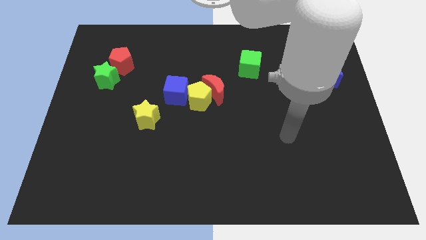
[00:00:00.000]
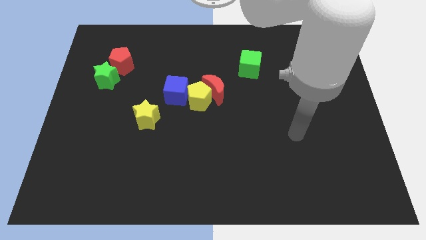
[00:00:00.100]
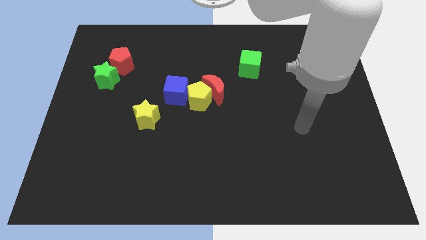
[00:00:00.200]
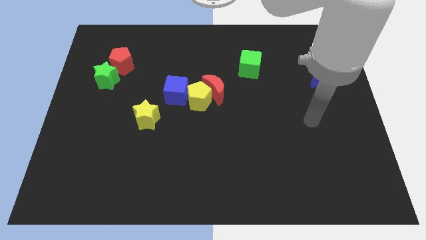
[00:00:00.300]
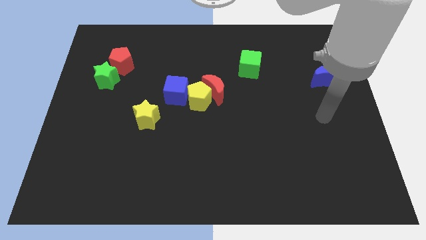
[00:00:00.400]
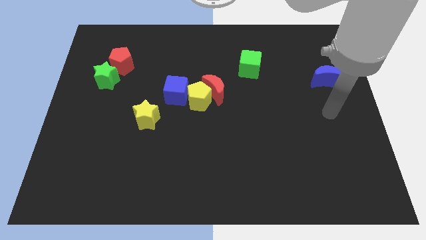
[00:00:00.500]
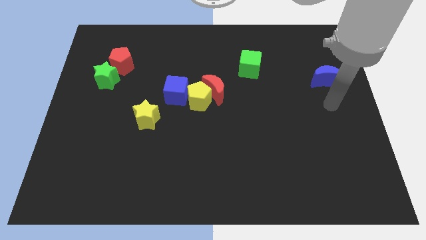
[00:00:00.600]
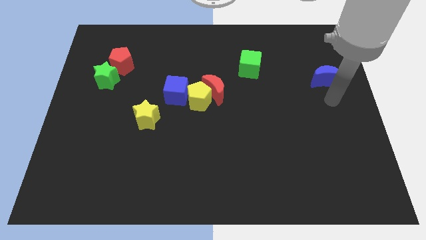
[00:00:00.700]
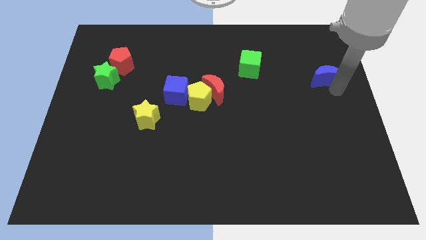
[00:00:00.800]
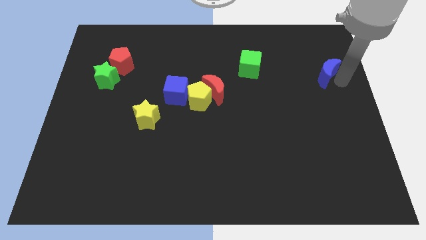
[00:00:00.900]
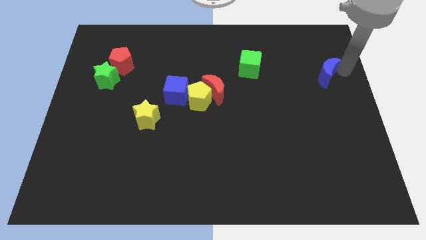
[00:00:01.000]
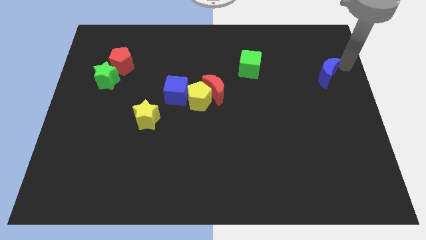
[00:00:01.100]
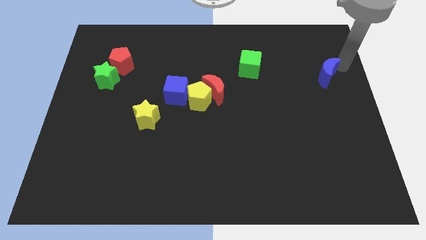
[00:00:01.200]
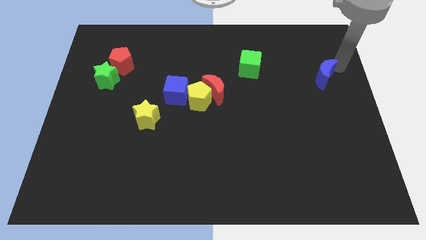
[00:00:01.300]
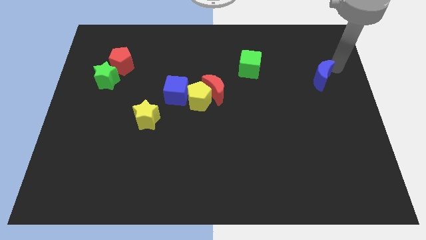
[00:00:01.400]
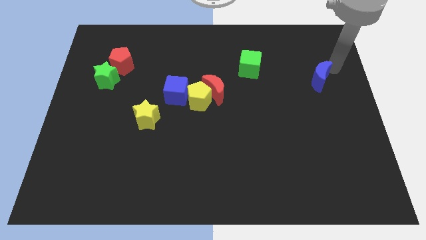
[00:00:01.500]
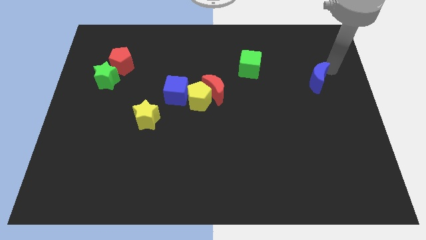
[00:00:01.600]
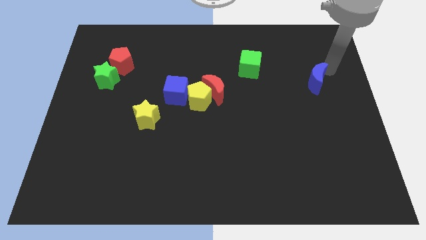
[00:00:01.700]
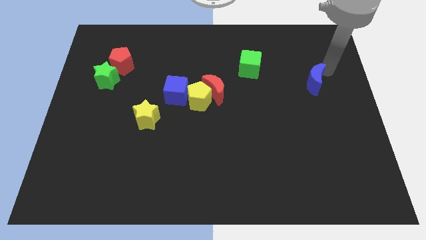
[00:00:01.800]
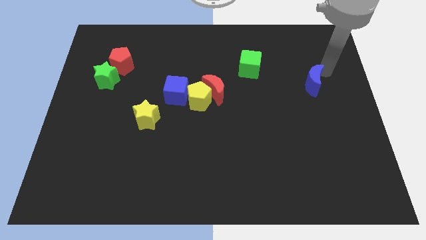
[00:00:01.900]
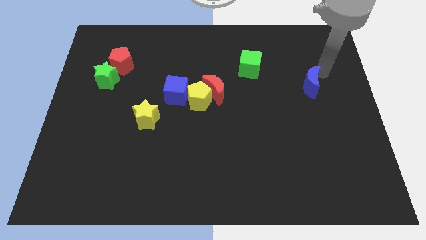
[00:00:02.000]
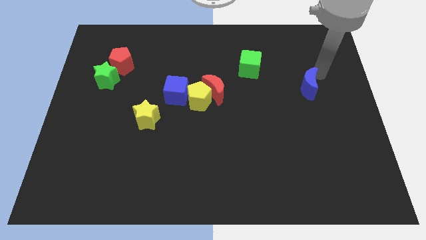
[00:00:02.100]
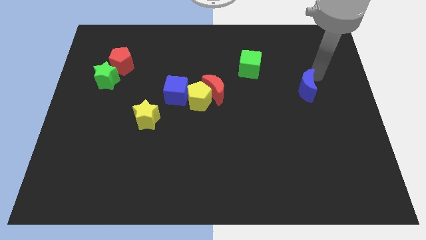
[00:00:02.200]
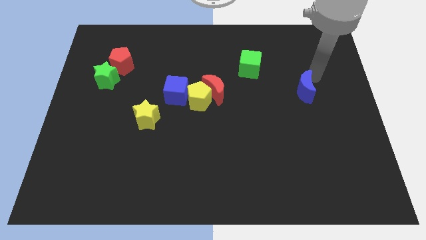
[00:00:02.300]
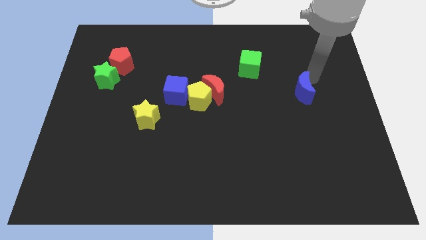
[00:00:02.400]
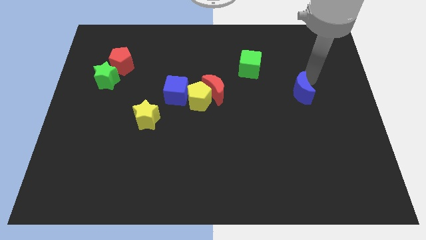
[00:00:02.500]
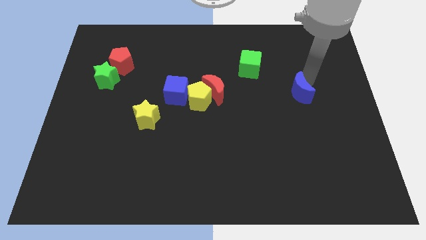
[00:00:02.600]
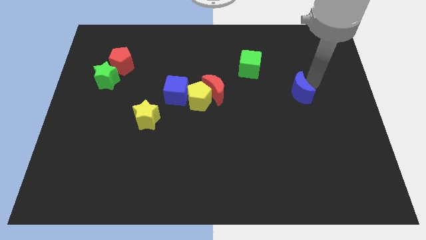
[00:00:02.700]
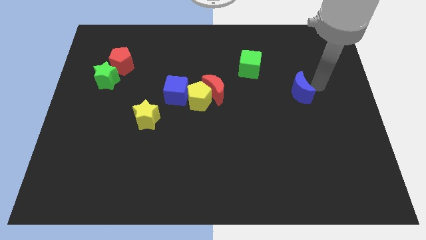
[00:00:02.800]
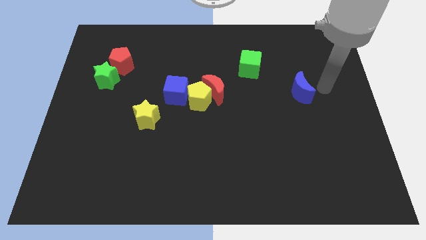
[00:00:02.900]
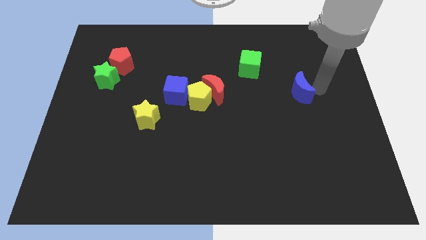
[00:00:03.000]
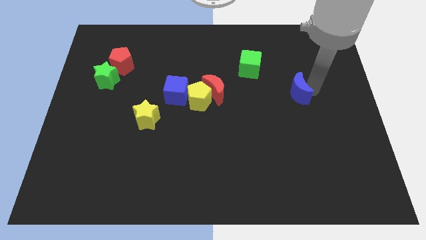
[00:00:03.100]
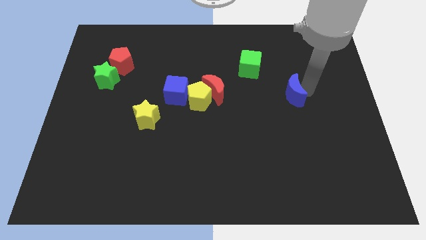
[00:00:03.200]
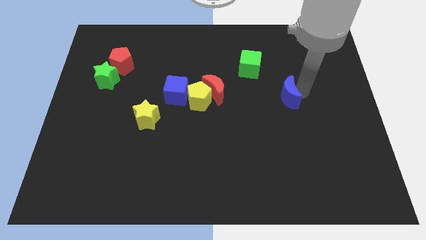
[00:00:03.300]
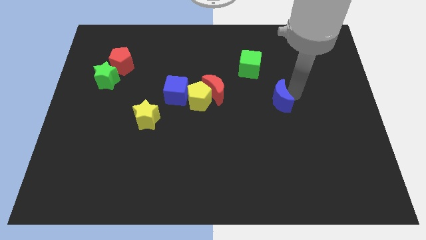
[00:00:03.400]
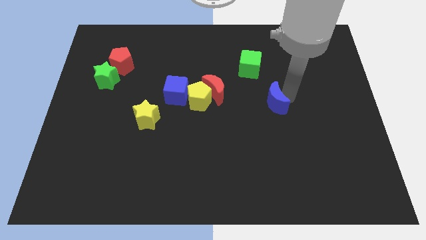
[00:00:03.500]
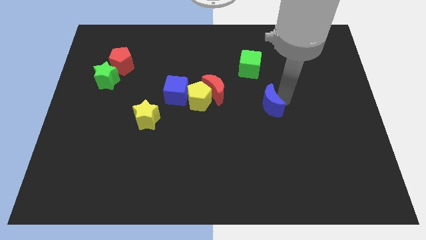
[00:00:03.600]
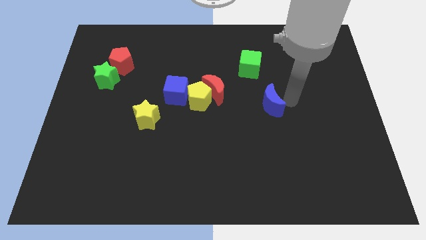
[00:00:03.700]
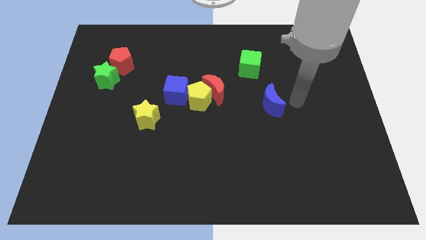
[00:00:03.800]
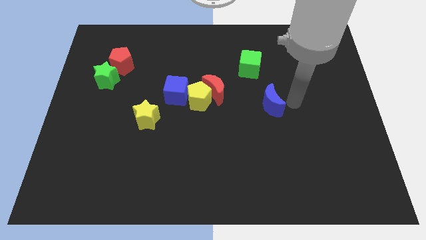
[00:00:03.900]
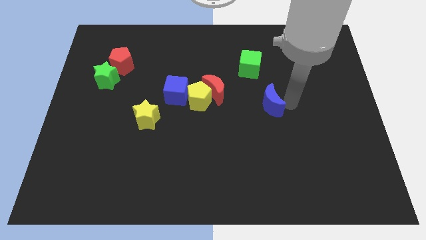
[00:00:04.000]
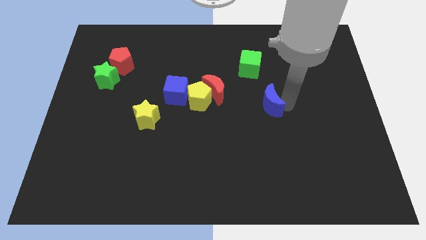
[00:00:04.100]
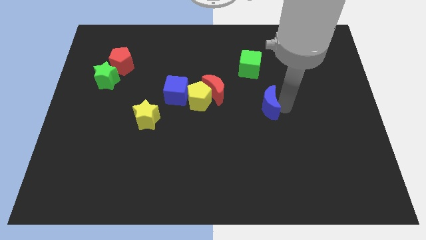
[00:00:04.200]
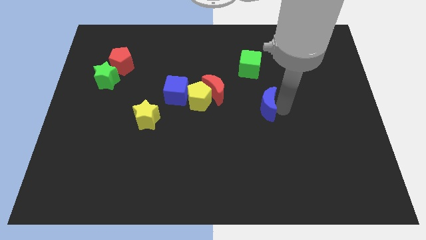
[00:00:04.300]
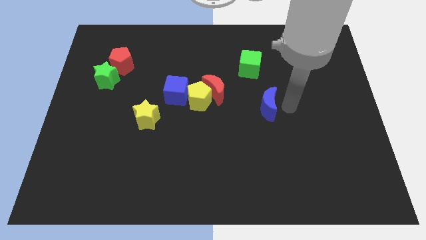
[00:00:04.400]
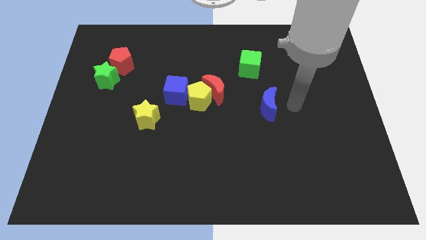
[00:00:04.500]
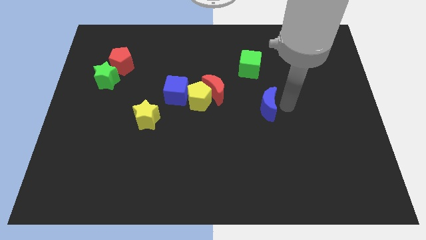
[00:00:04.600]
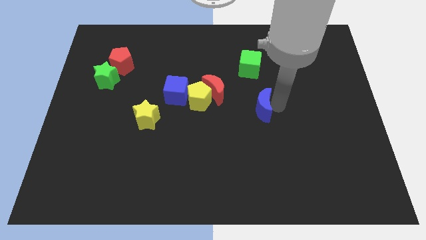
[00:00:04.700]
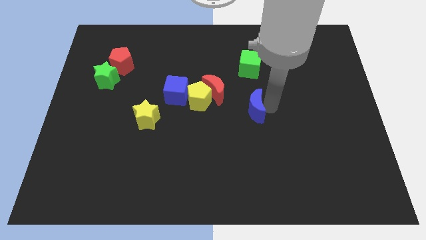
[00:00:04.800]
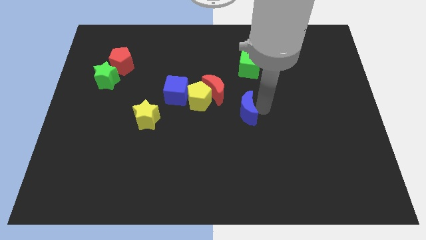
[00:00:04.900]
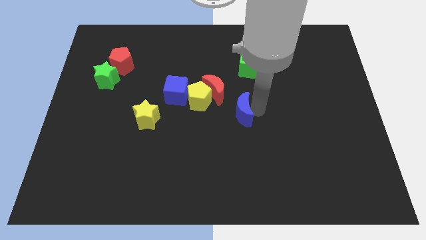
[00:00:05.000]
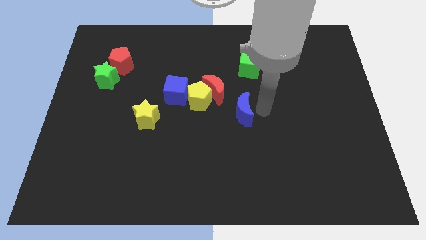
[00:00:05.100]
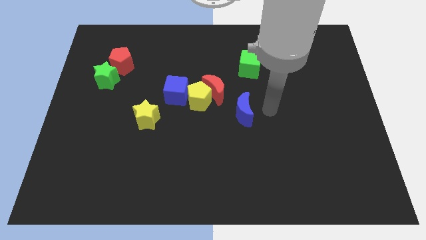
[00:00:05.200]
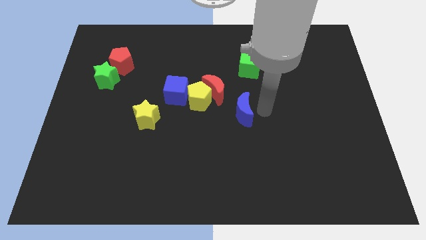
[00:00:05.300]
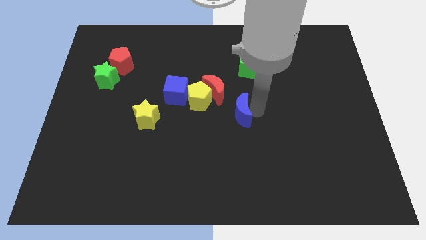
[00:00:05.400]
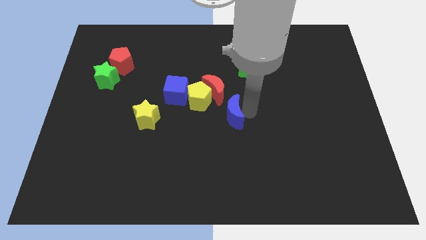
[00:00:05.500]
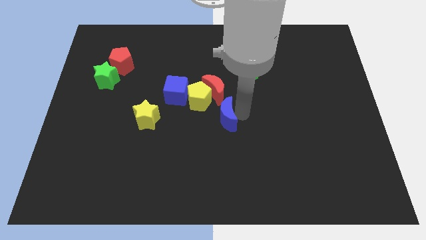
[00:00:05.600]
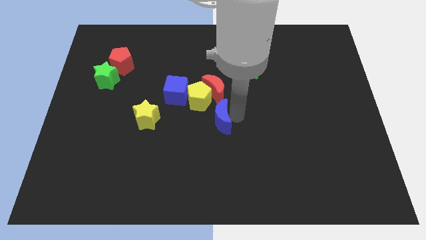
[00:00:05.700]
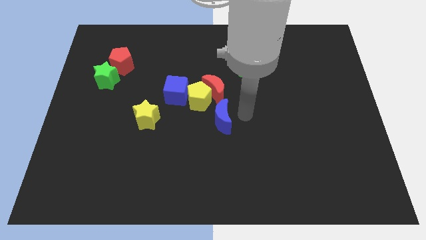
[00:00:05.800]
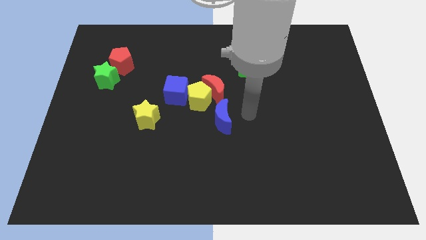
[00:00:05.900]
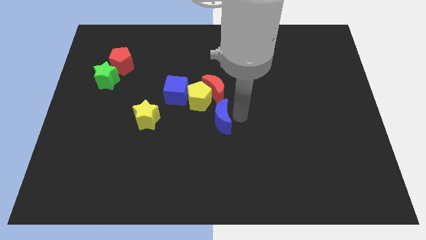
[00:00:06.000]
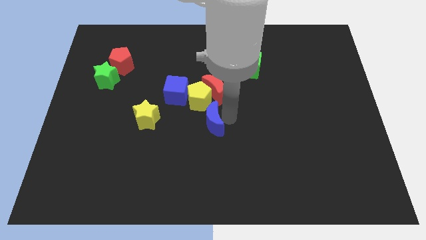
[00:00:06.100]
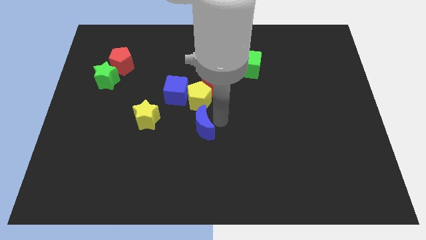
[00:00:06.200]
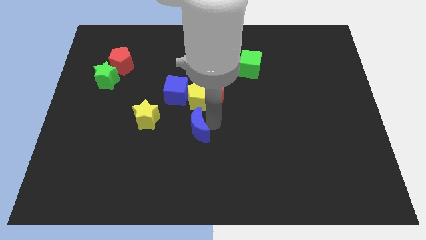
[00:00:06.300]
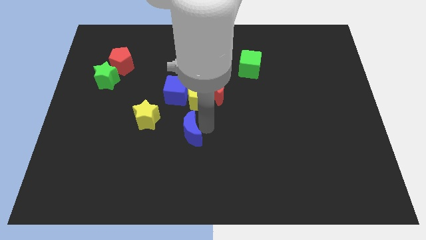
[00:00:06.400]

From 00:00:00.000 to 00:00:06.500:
put the blue moon to the bottom of the blue cube
